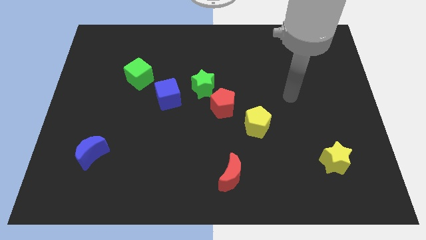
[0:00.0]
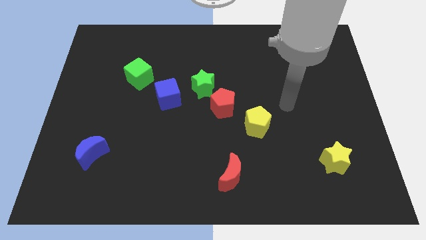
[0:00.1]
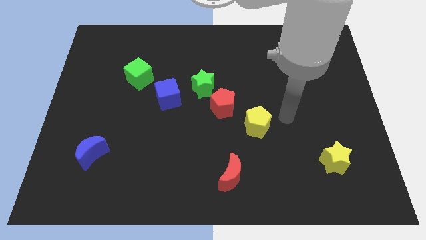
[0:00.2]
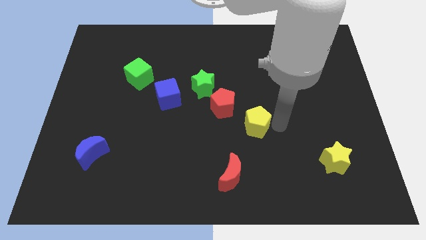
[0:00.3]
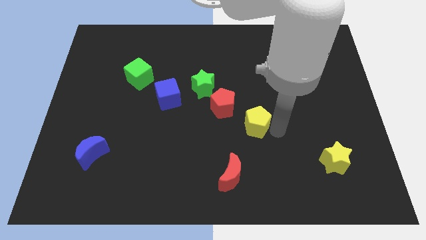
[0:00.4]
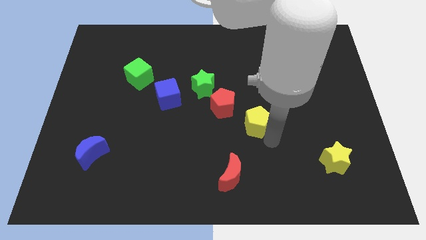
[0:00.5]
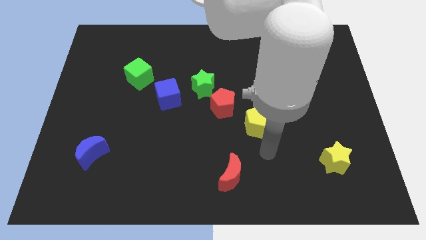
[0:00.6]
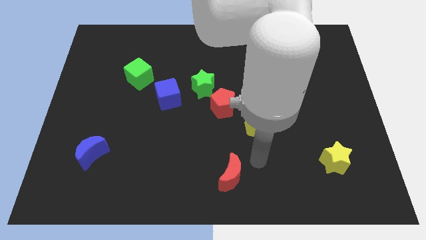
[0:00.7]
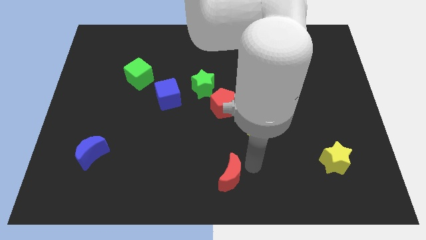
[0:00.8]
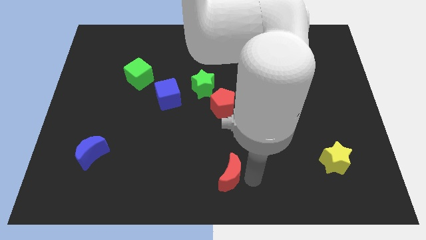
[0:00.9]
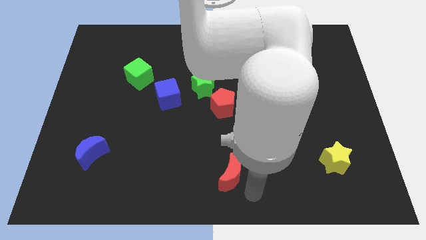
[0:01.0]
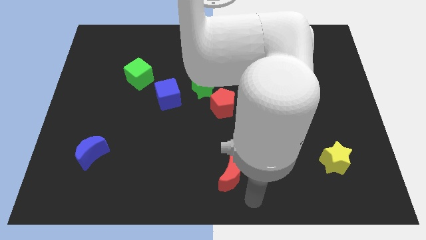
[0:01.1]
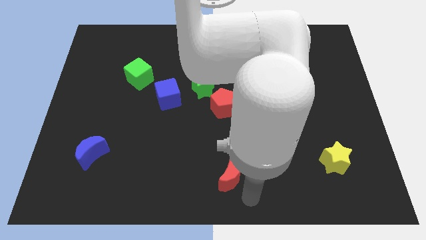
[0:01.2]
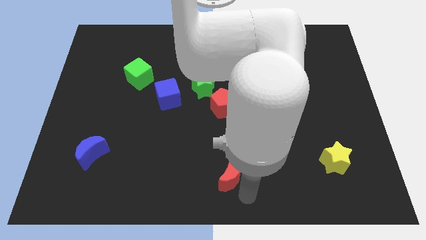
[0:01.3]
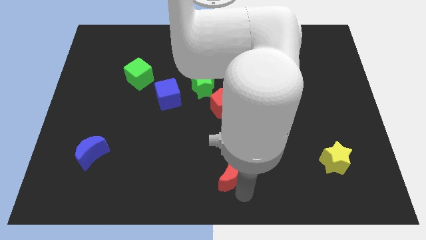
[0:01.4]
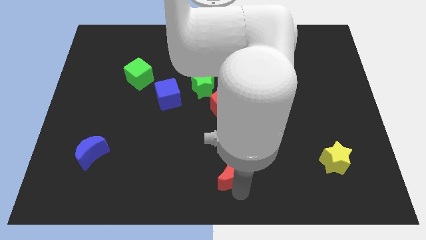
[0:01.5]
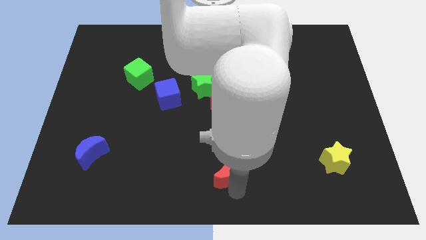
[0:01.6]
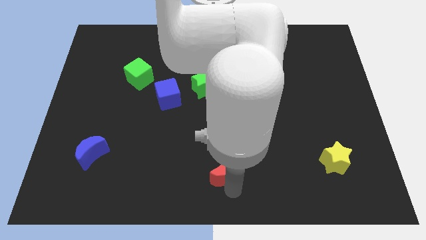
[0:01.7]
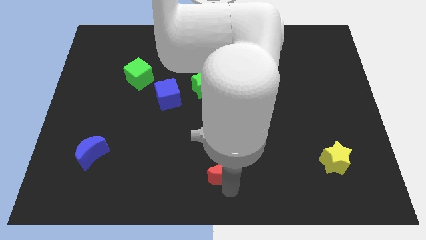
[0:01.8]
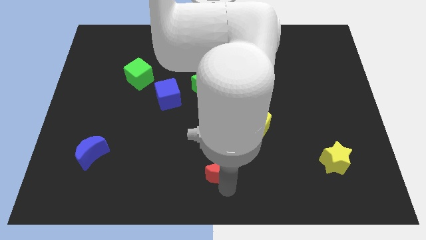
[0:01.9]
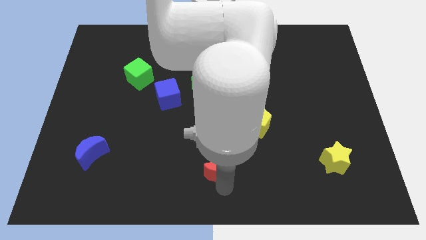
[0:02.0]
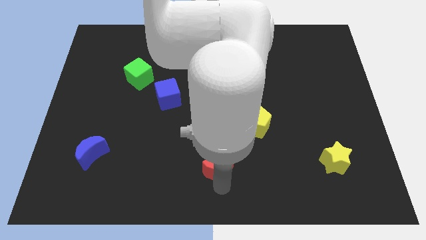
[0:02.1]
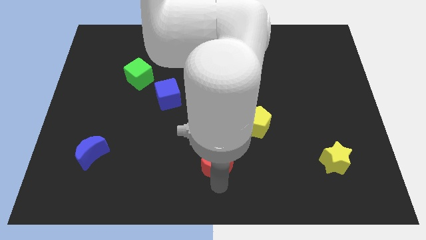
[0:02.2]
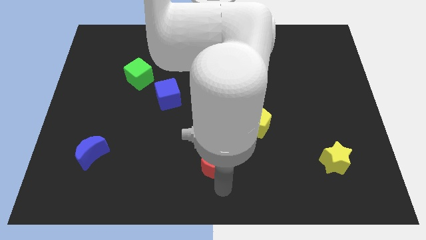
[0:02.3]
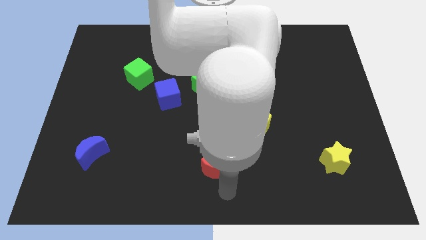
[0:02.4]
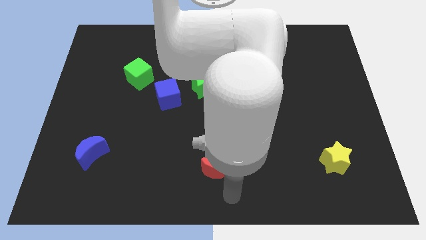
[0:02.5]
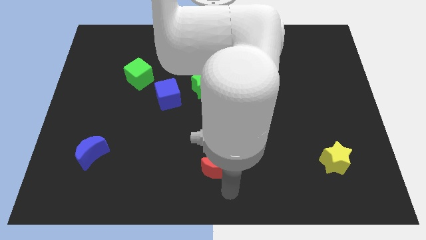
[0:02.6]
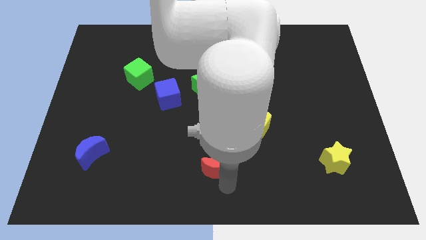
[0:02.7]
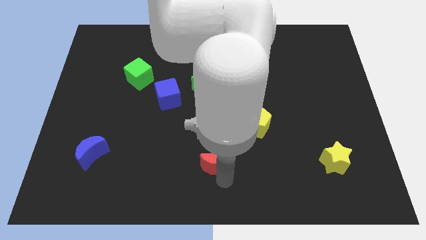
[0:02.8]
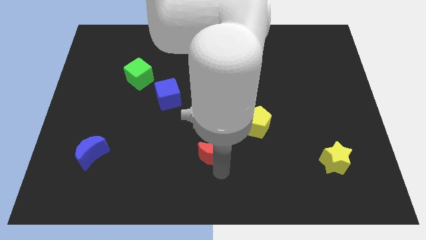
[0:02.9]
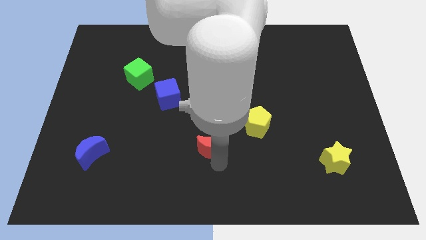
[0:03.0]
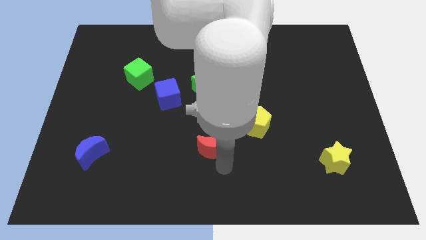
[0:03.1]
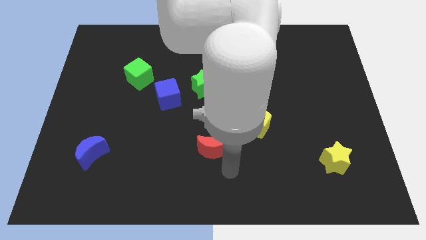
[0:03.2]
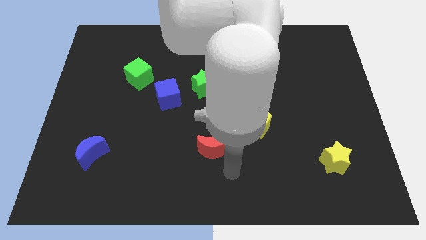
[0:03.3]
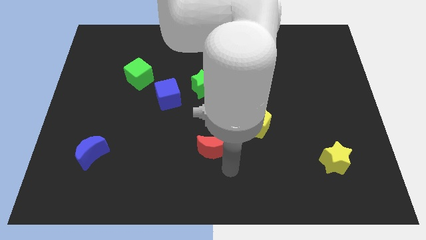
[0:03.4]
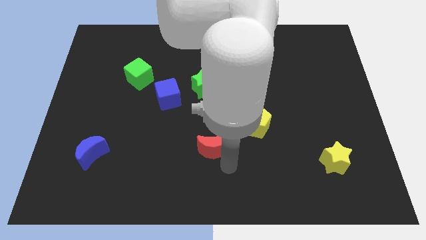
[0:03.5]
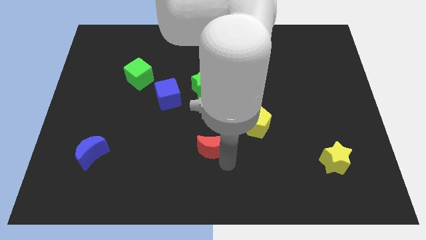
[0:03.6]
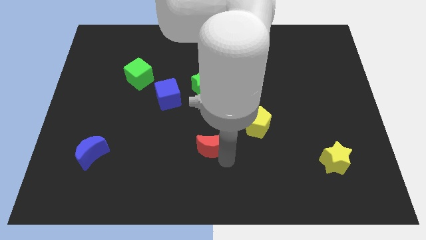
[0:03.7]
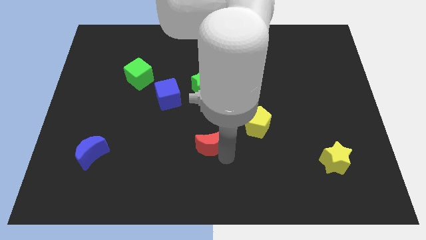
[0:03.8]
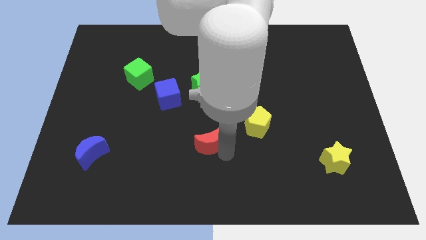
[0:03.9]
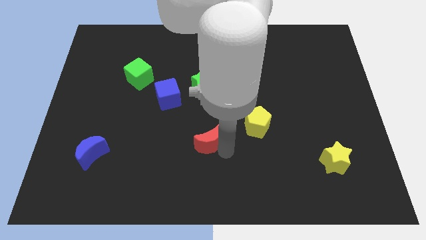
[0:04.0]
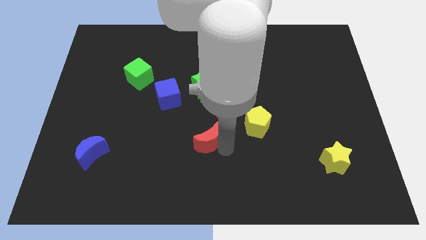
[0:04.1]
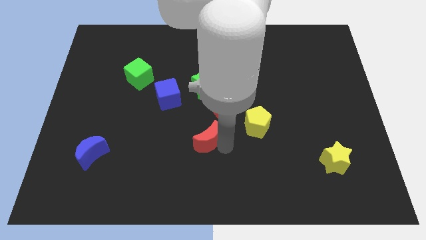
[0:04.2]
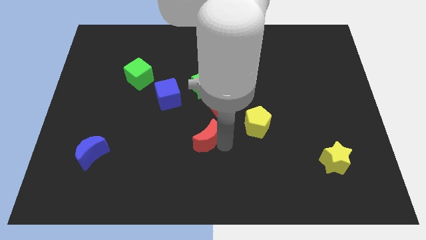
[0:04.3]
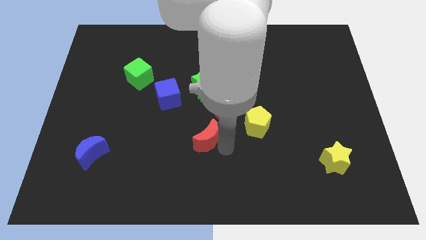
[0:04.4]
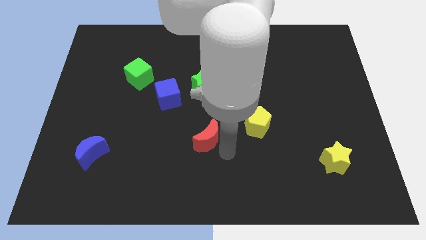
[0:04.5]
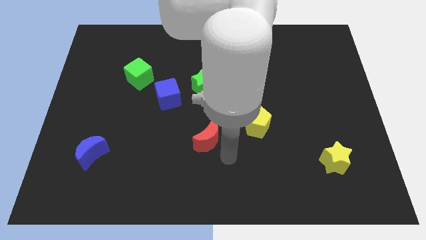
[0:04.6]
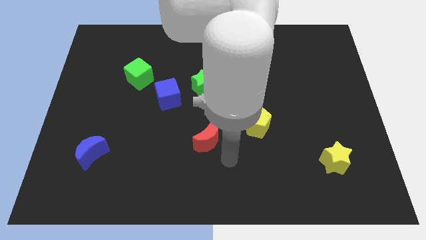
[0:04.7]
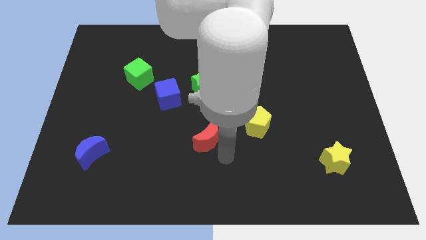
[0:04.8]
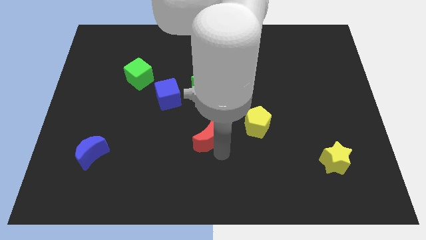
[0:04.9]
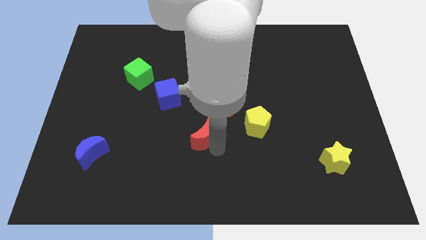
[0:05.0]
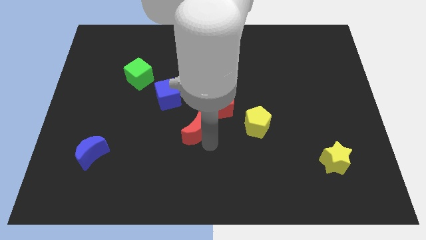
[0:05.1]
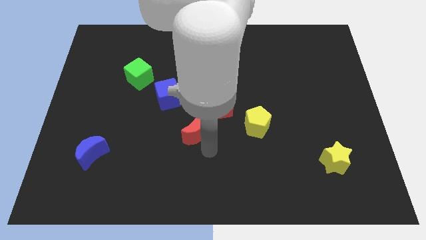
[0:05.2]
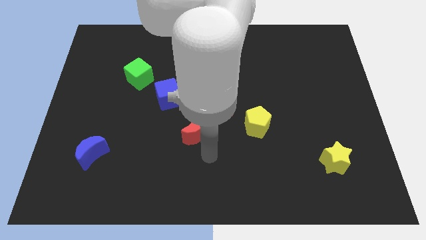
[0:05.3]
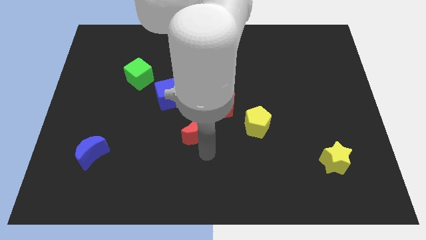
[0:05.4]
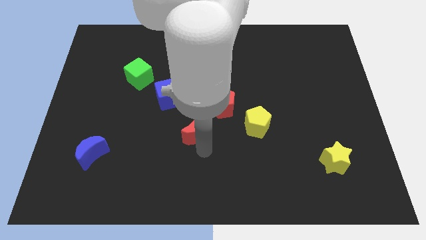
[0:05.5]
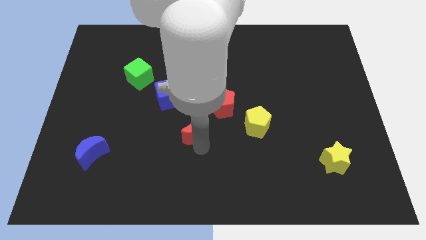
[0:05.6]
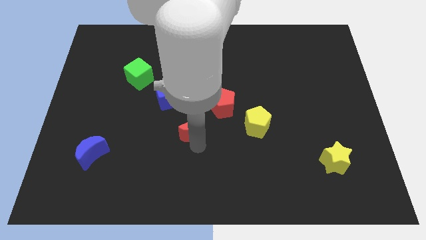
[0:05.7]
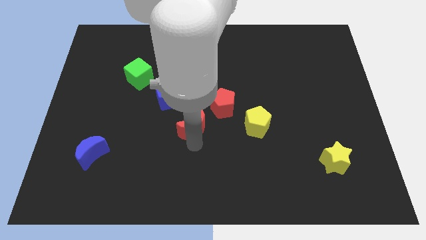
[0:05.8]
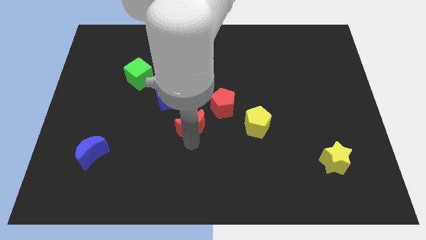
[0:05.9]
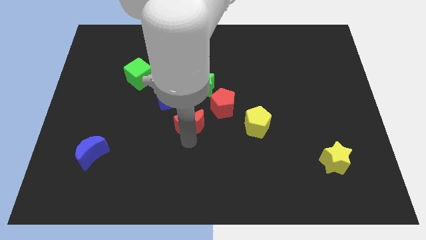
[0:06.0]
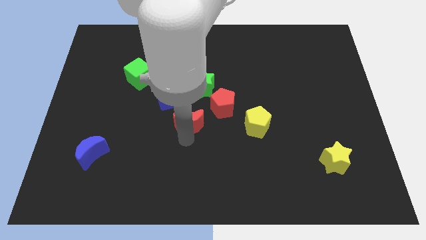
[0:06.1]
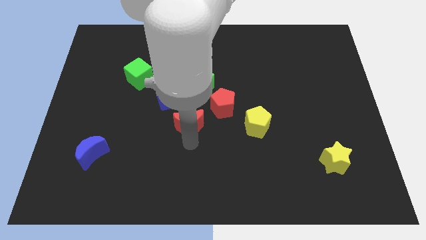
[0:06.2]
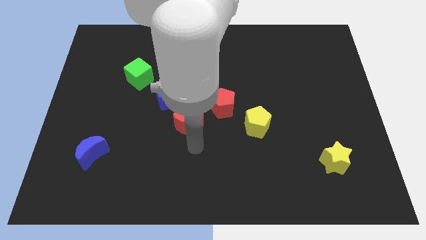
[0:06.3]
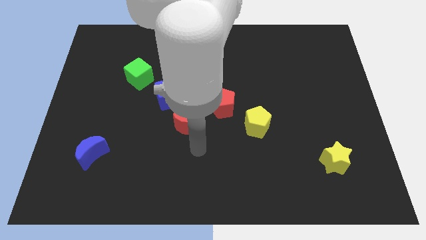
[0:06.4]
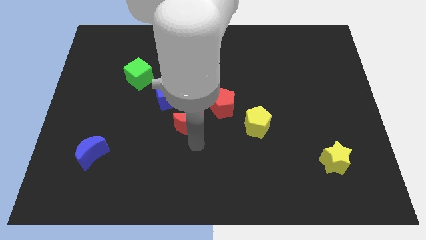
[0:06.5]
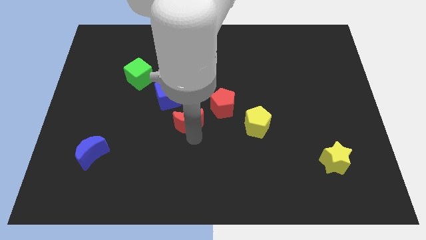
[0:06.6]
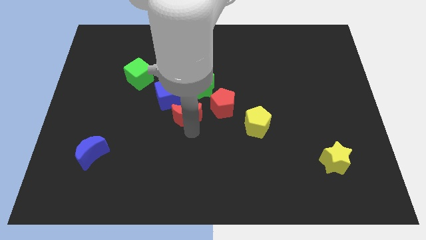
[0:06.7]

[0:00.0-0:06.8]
slide the red moon to the bottom left of the green star

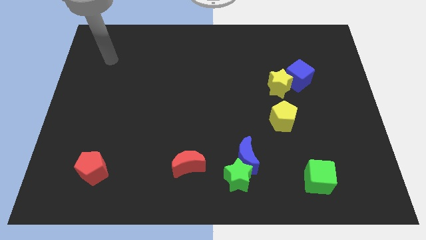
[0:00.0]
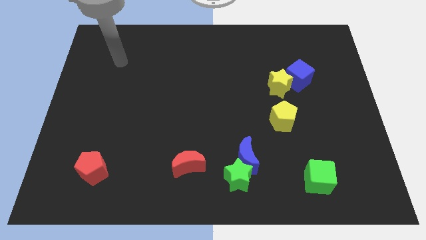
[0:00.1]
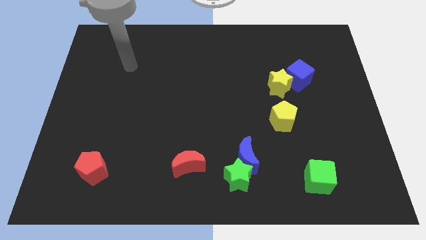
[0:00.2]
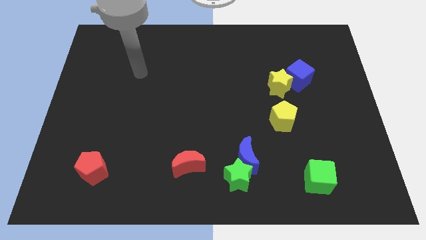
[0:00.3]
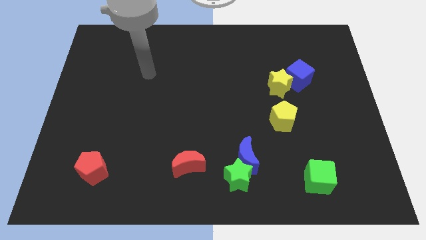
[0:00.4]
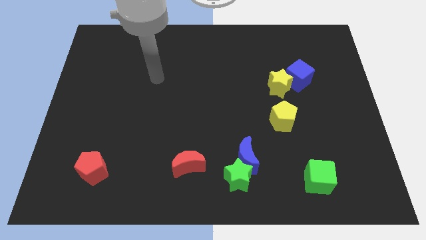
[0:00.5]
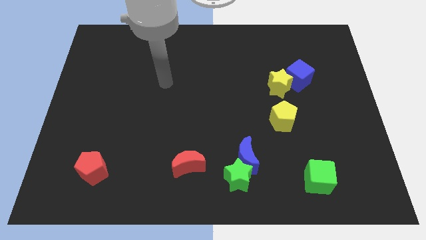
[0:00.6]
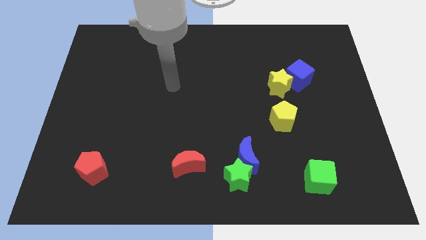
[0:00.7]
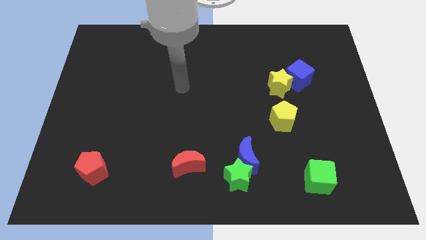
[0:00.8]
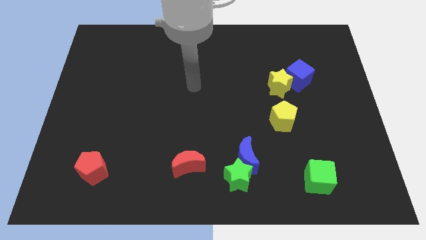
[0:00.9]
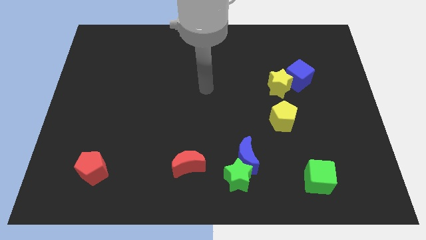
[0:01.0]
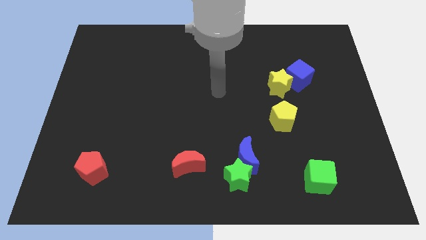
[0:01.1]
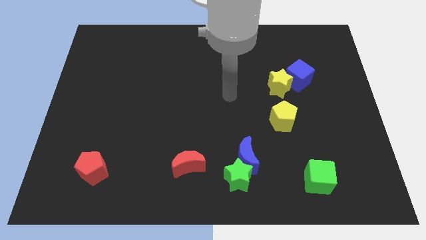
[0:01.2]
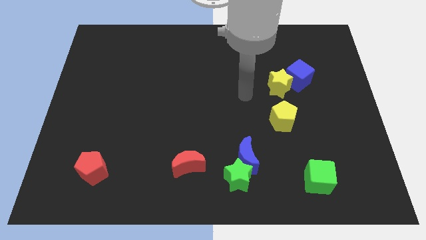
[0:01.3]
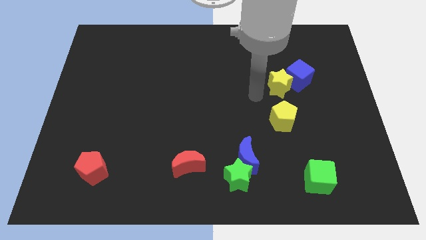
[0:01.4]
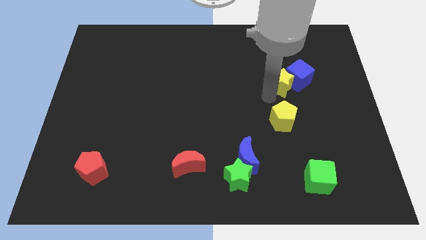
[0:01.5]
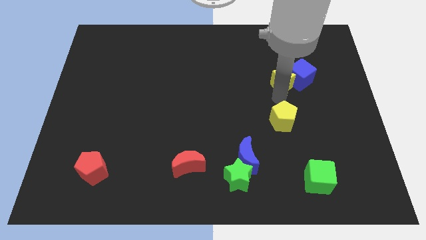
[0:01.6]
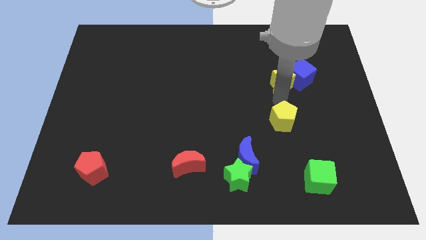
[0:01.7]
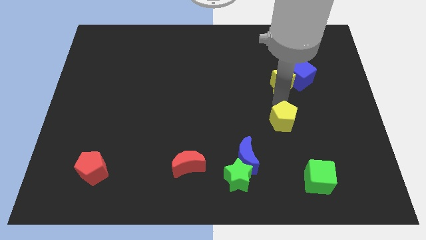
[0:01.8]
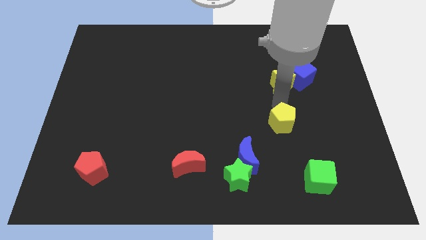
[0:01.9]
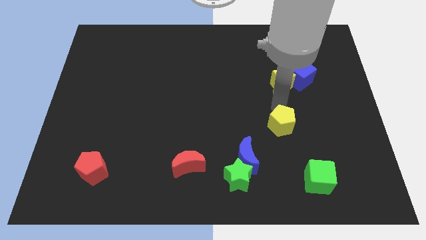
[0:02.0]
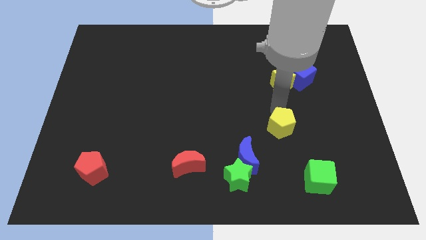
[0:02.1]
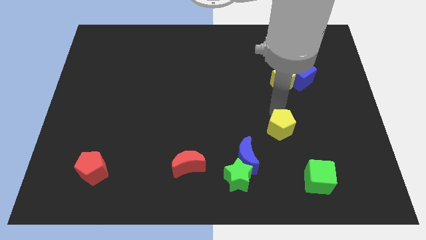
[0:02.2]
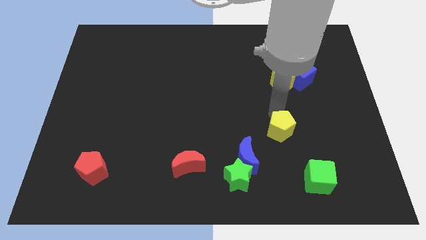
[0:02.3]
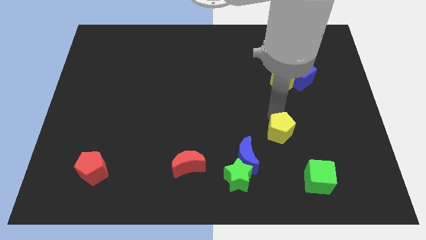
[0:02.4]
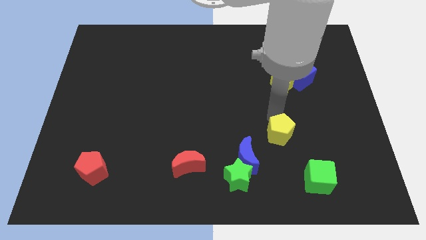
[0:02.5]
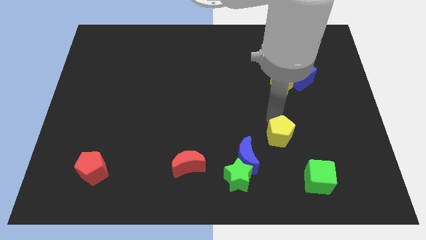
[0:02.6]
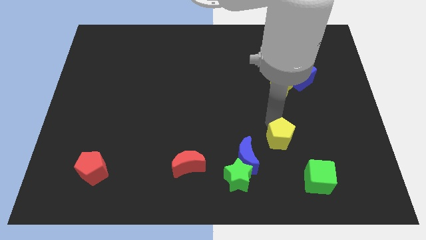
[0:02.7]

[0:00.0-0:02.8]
put the yellow pentagon to the top left of the green cube
